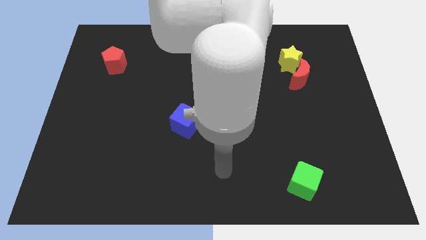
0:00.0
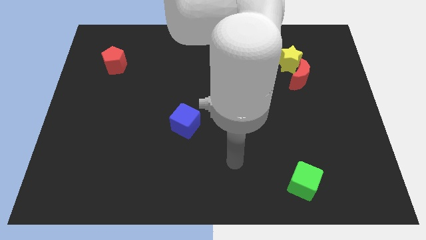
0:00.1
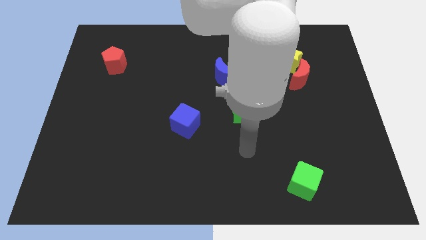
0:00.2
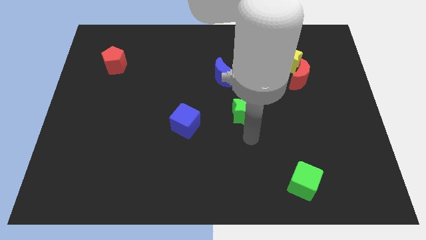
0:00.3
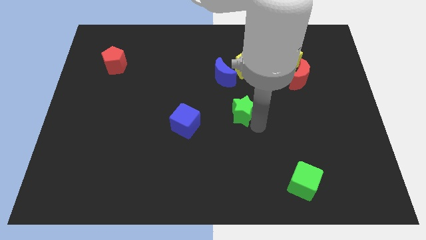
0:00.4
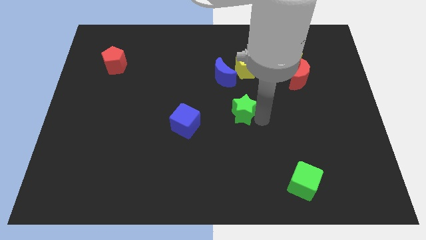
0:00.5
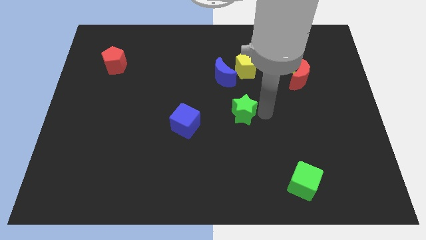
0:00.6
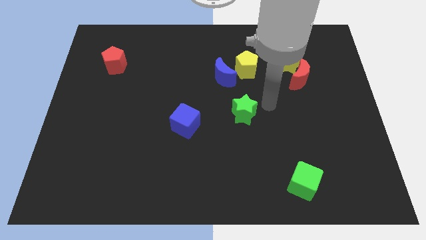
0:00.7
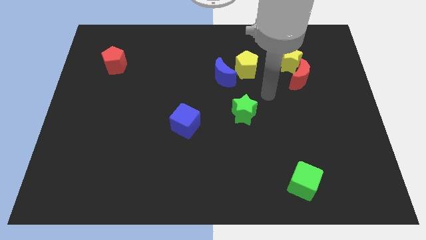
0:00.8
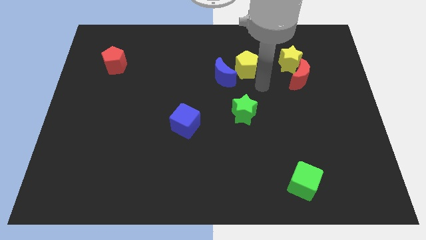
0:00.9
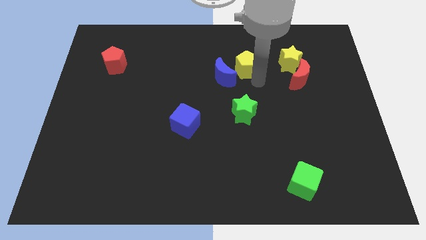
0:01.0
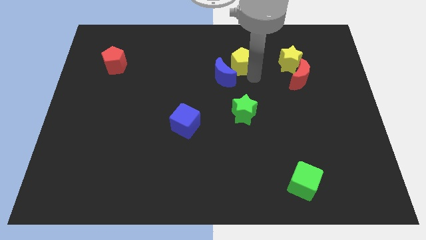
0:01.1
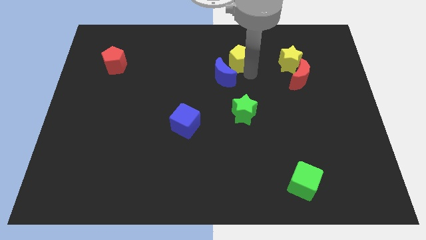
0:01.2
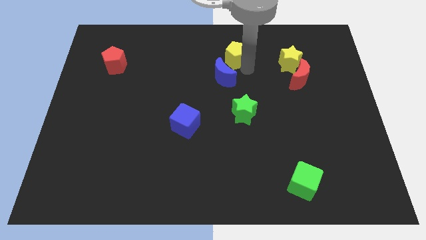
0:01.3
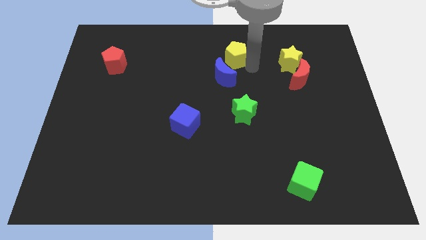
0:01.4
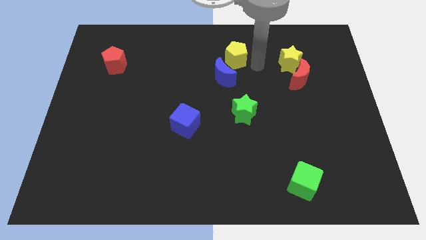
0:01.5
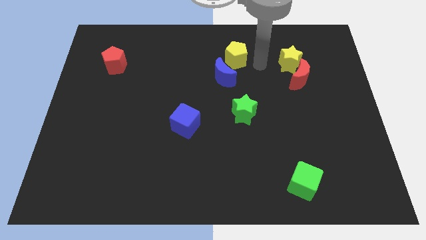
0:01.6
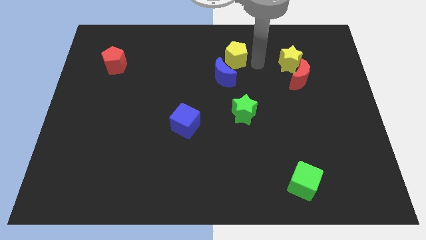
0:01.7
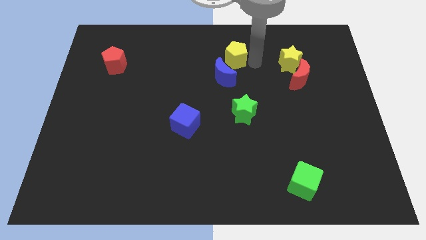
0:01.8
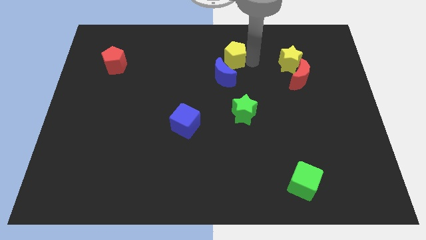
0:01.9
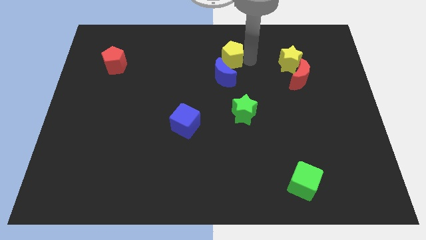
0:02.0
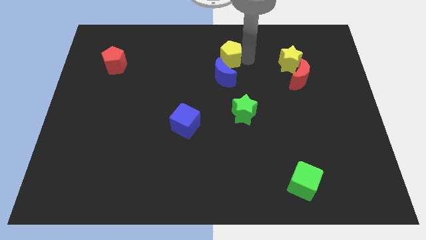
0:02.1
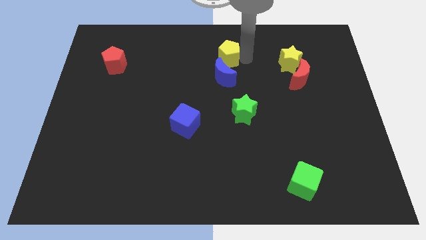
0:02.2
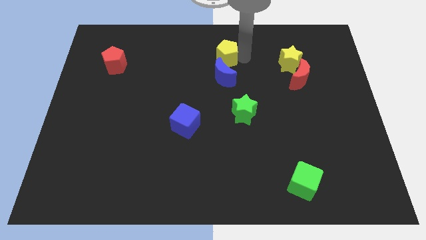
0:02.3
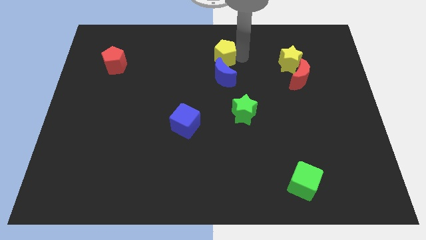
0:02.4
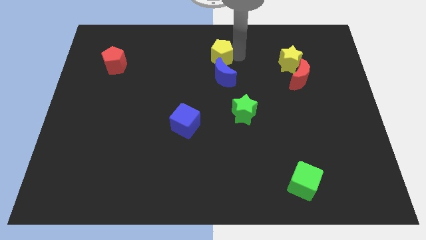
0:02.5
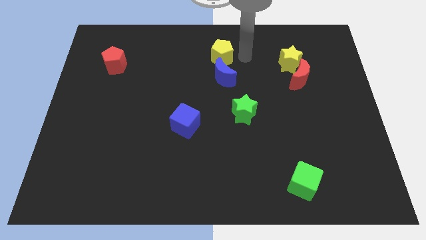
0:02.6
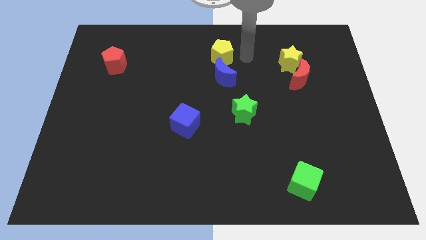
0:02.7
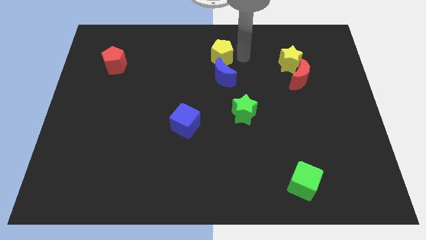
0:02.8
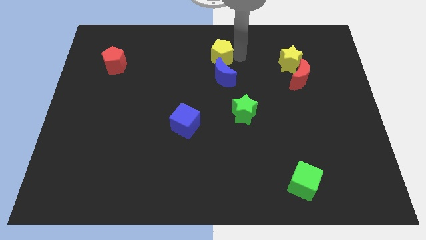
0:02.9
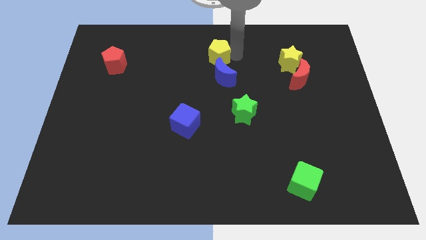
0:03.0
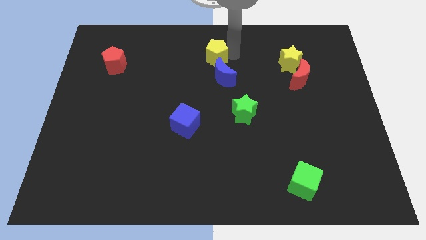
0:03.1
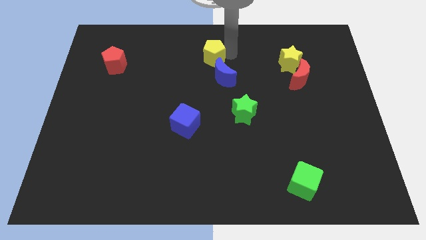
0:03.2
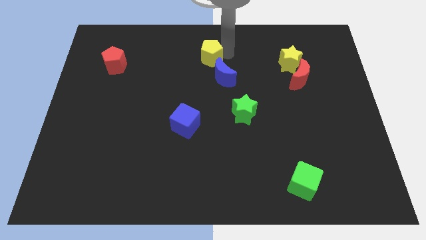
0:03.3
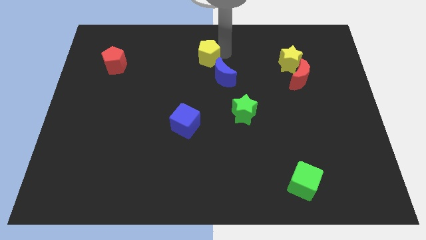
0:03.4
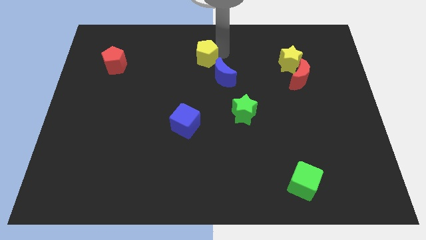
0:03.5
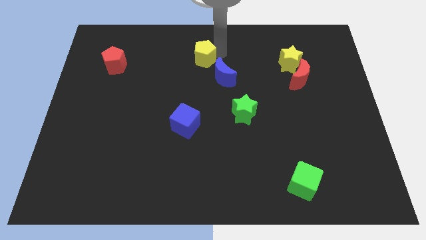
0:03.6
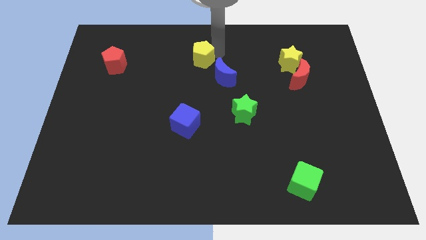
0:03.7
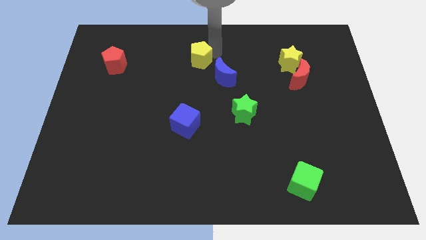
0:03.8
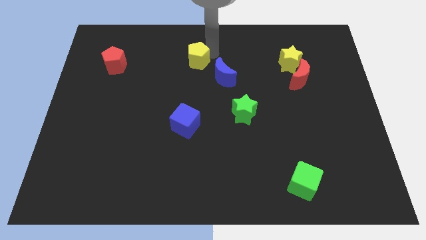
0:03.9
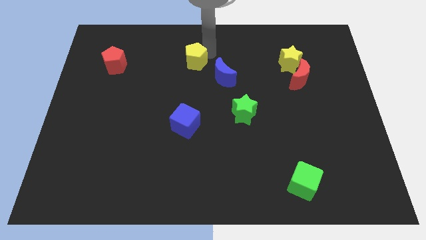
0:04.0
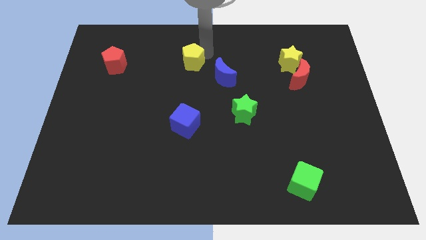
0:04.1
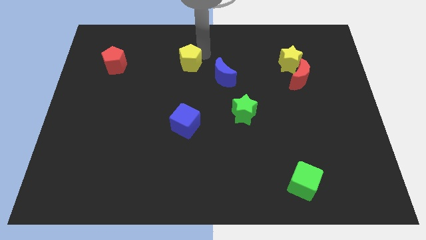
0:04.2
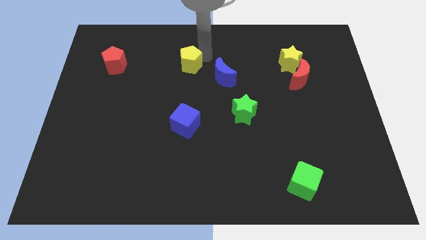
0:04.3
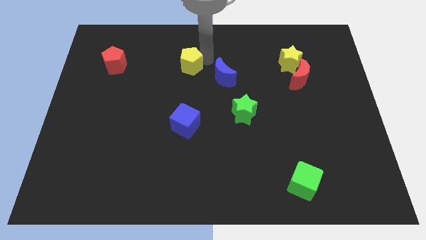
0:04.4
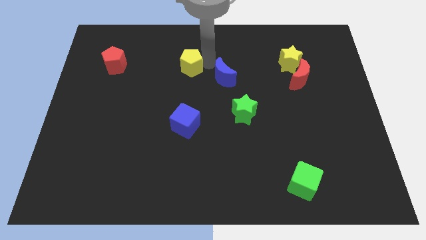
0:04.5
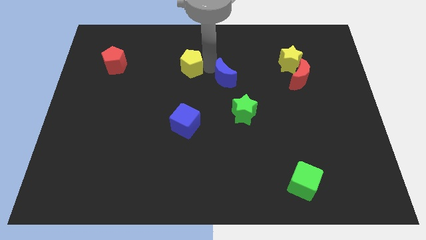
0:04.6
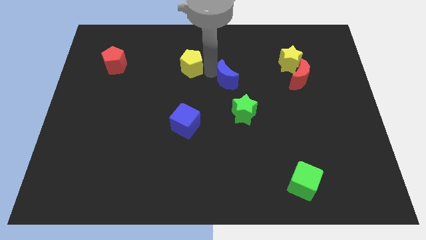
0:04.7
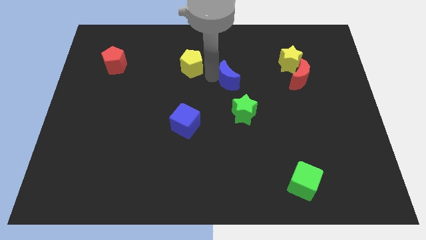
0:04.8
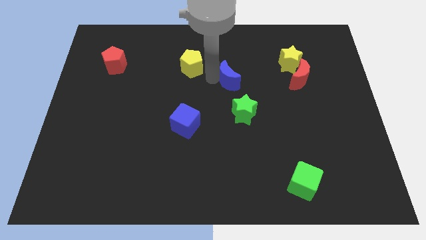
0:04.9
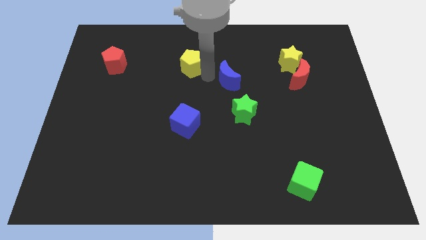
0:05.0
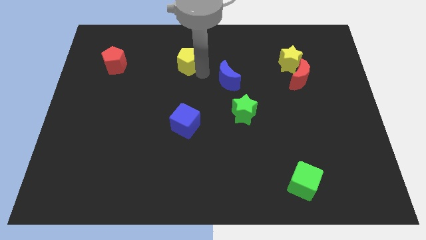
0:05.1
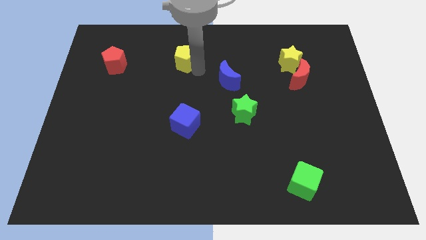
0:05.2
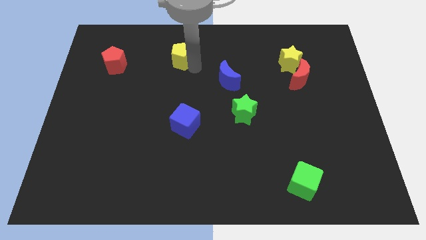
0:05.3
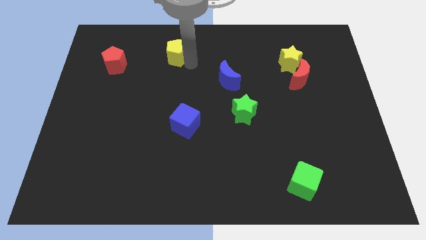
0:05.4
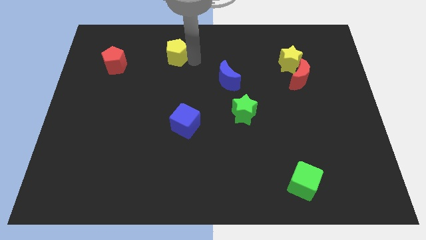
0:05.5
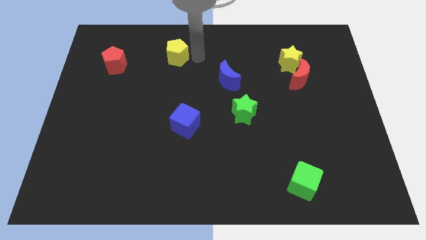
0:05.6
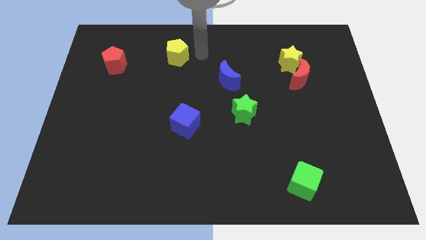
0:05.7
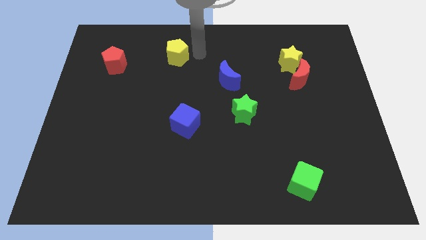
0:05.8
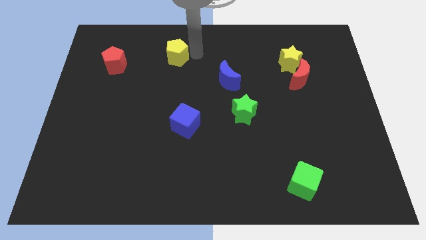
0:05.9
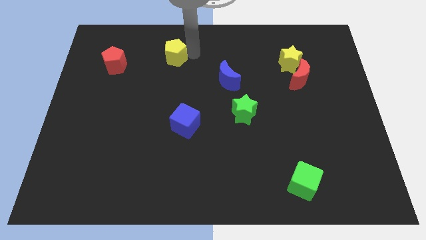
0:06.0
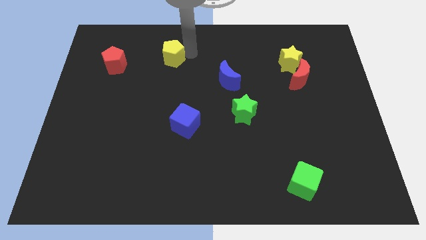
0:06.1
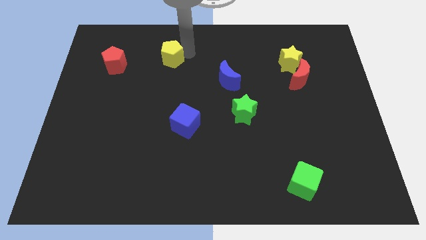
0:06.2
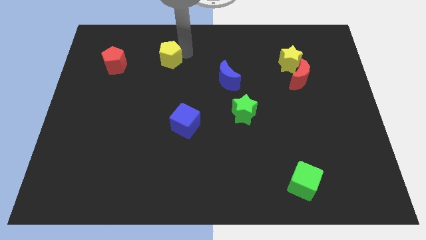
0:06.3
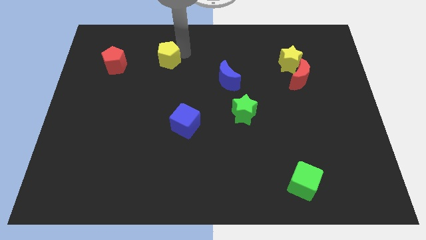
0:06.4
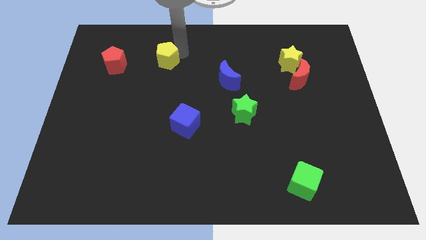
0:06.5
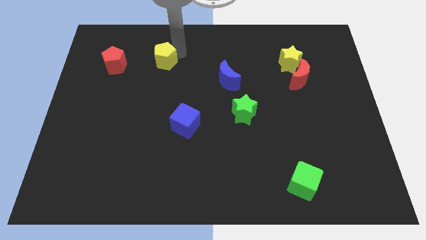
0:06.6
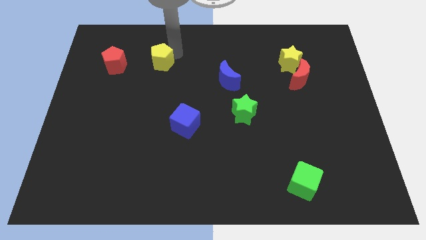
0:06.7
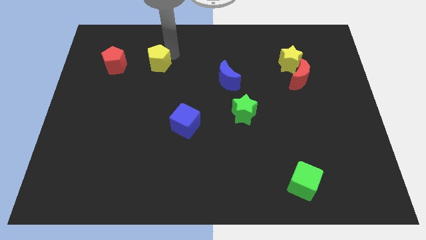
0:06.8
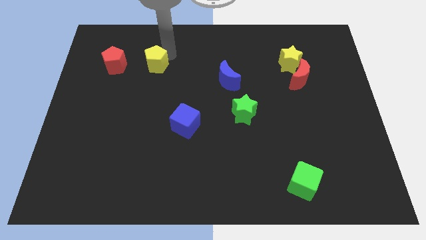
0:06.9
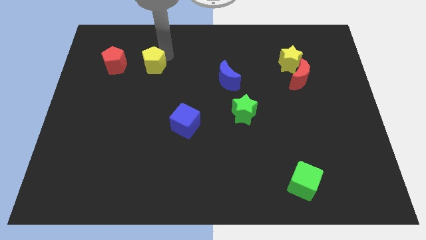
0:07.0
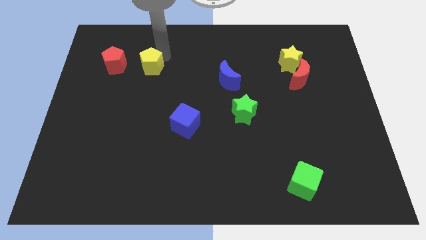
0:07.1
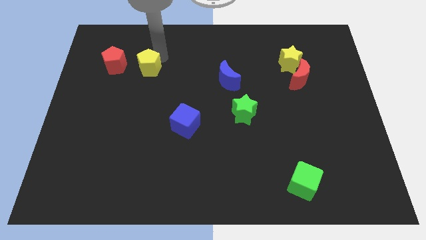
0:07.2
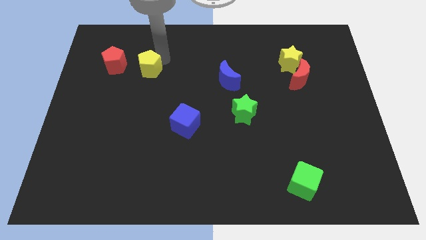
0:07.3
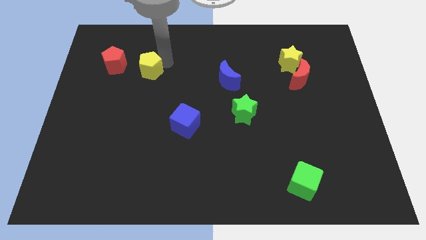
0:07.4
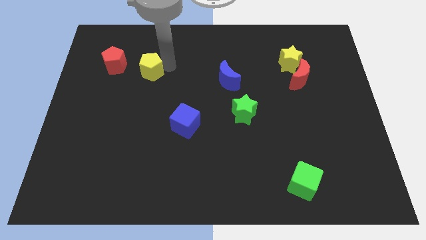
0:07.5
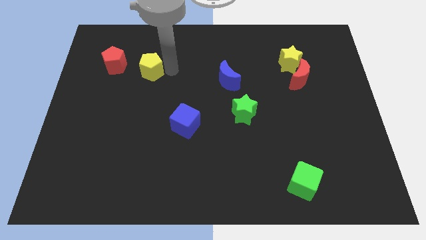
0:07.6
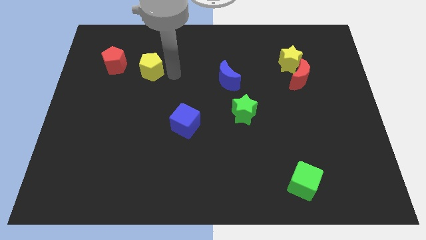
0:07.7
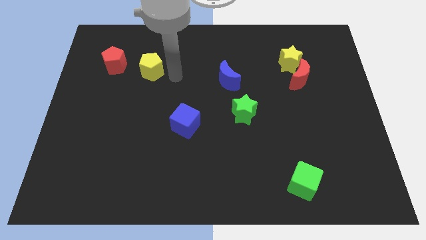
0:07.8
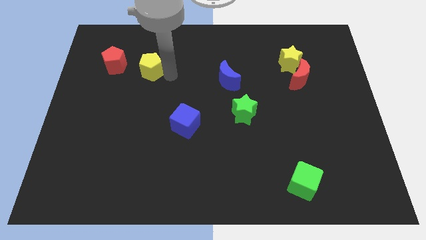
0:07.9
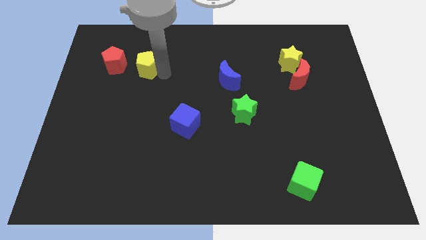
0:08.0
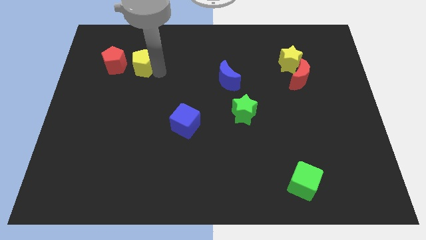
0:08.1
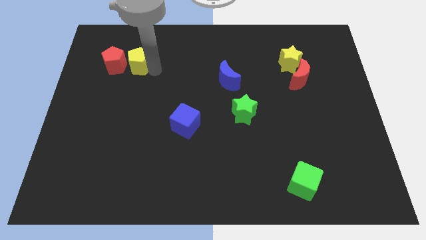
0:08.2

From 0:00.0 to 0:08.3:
push the yellow pentagon close to the red pentagon
